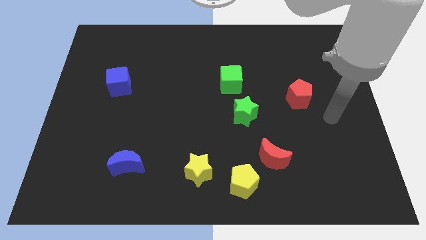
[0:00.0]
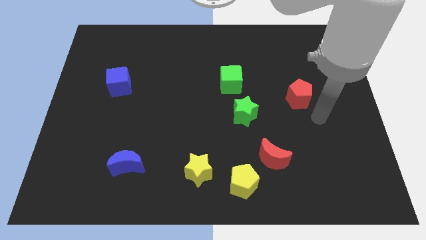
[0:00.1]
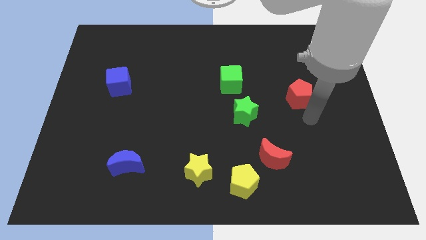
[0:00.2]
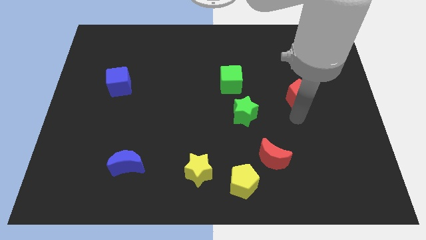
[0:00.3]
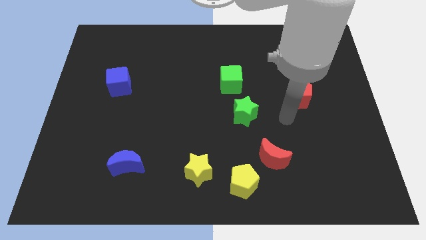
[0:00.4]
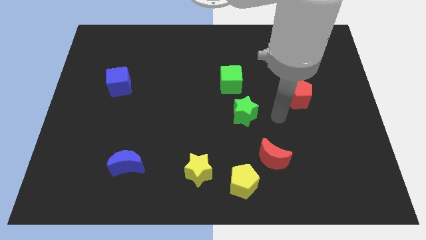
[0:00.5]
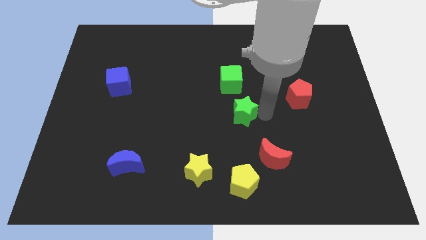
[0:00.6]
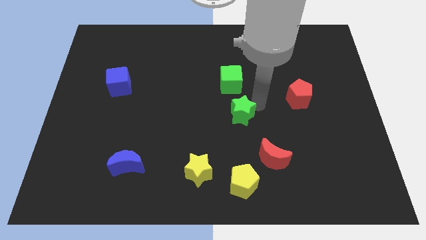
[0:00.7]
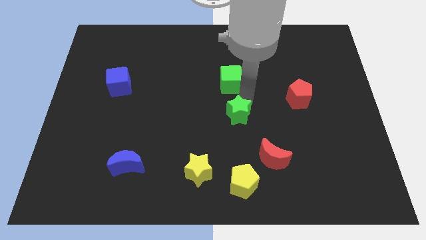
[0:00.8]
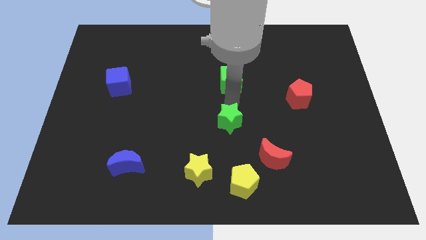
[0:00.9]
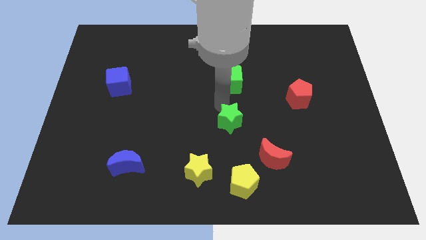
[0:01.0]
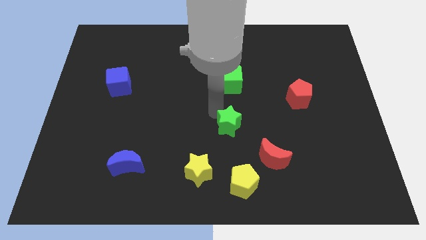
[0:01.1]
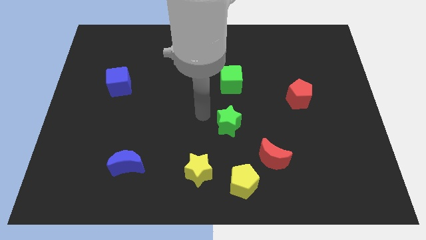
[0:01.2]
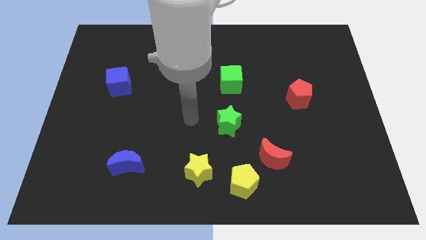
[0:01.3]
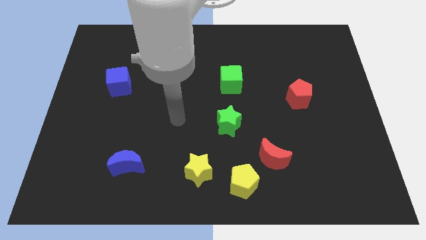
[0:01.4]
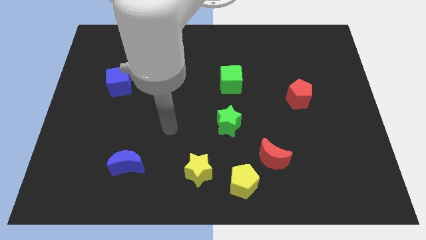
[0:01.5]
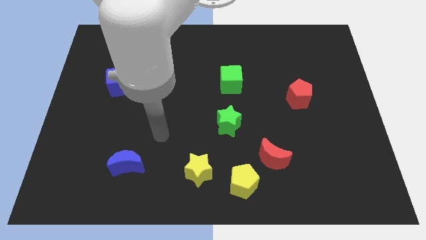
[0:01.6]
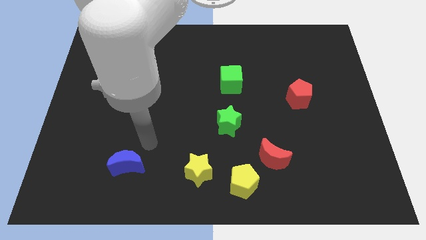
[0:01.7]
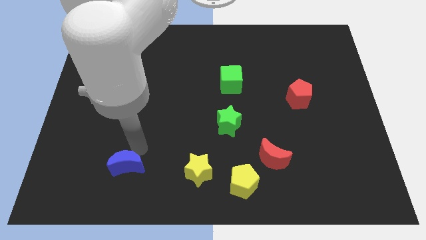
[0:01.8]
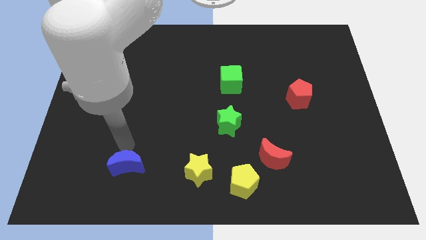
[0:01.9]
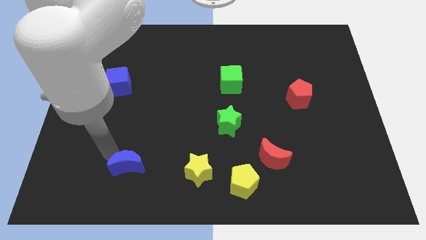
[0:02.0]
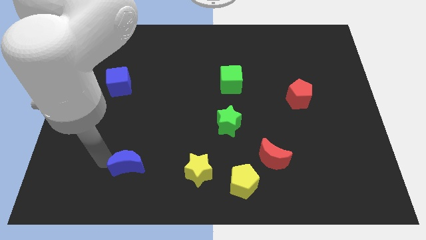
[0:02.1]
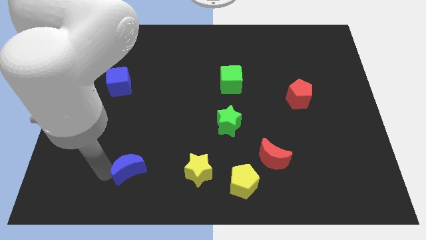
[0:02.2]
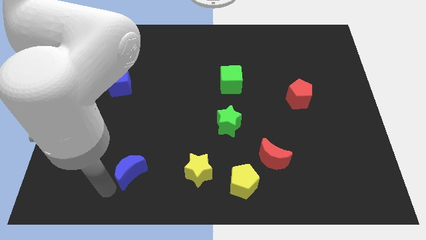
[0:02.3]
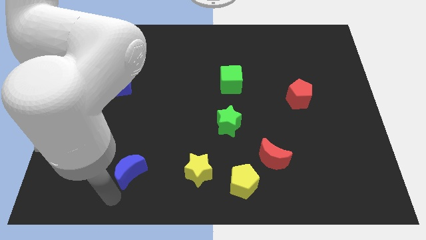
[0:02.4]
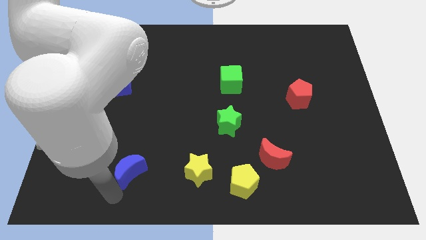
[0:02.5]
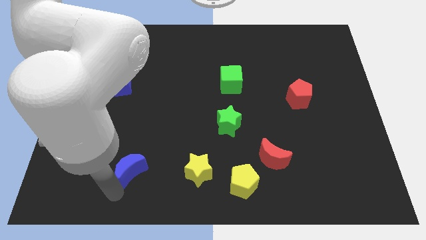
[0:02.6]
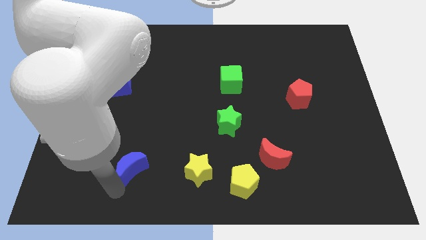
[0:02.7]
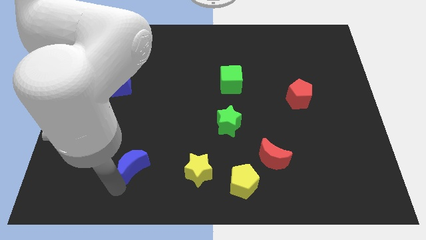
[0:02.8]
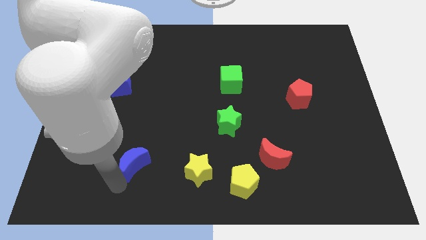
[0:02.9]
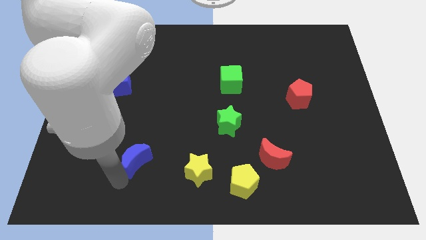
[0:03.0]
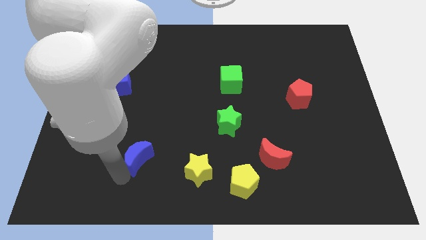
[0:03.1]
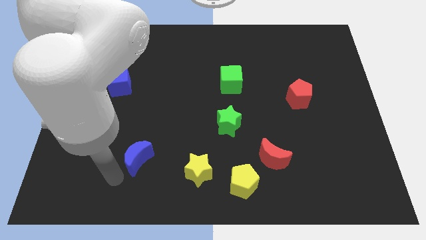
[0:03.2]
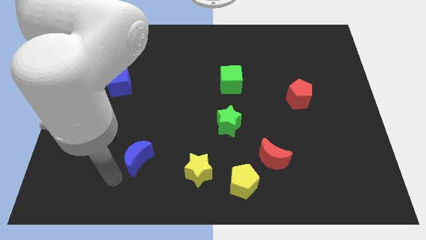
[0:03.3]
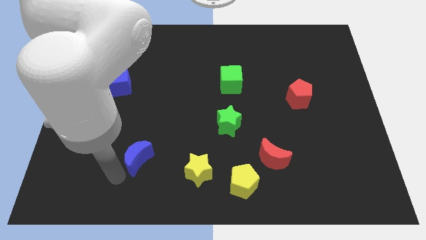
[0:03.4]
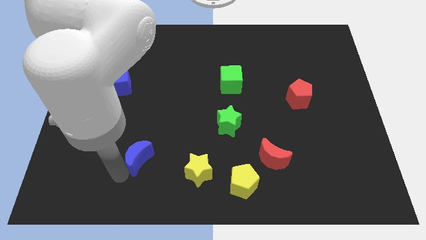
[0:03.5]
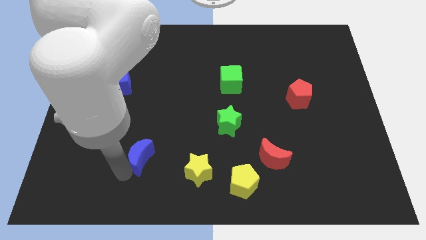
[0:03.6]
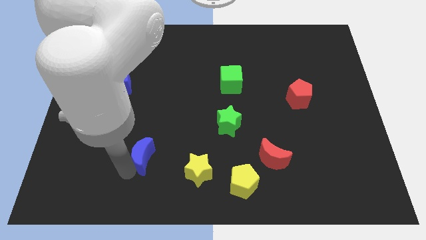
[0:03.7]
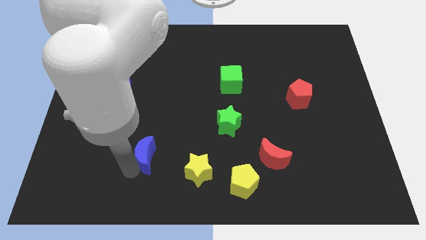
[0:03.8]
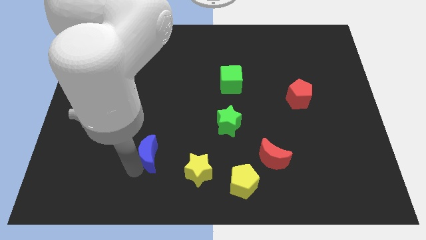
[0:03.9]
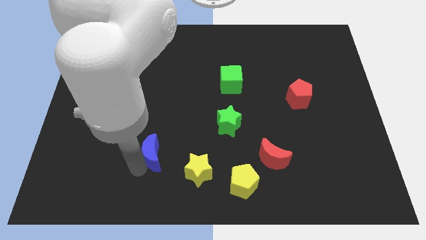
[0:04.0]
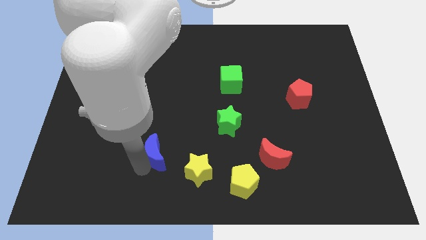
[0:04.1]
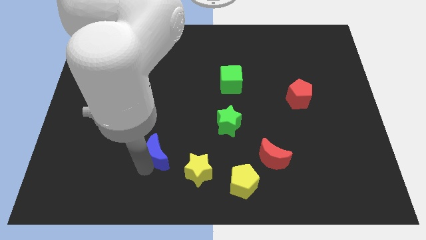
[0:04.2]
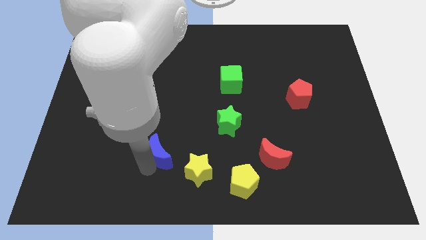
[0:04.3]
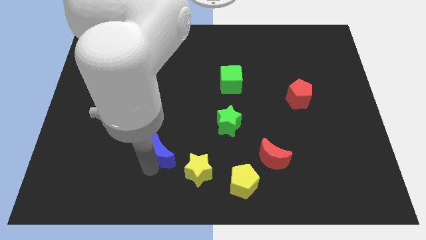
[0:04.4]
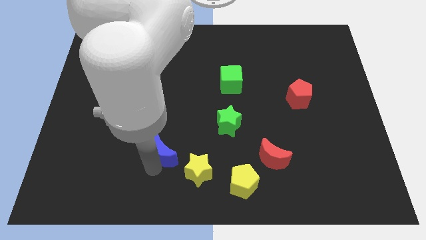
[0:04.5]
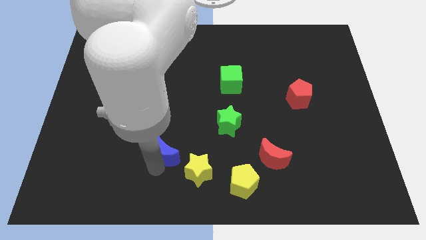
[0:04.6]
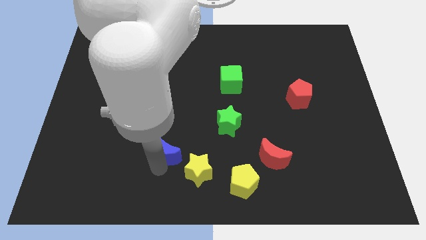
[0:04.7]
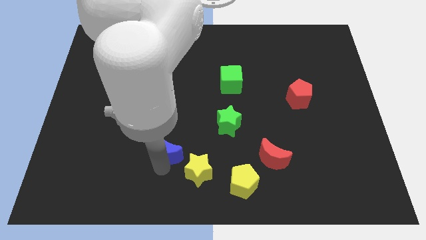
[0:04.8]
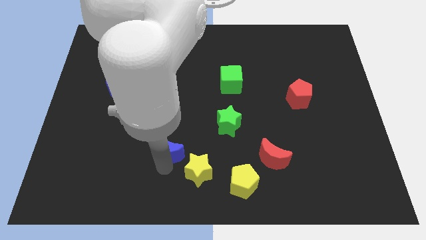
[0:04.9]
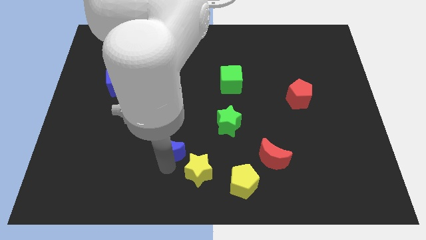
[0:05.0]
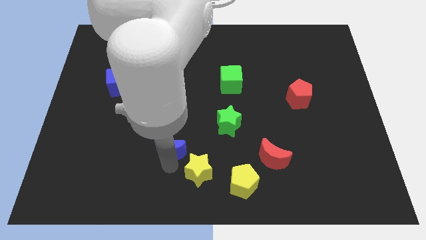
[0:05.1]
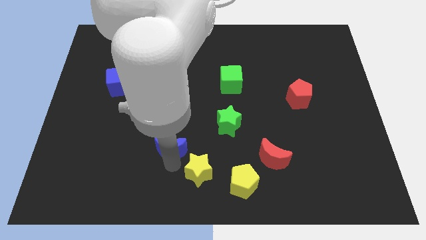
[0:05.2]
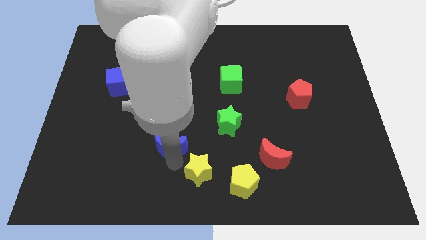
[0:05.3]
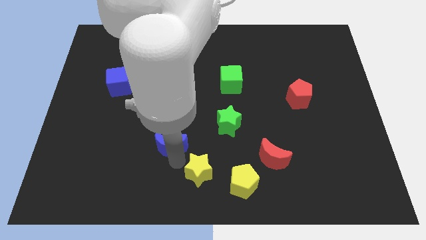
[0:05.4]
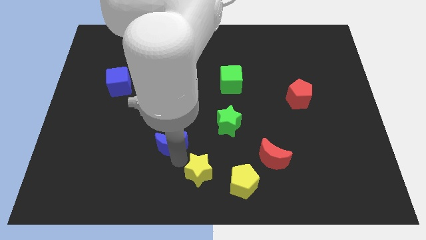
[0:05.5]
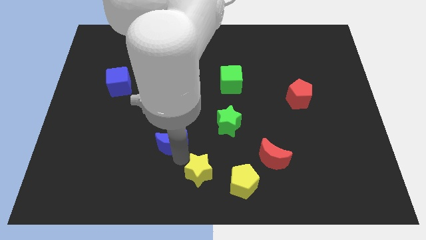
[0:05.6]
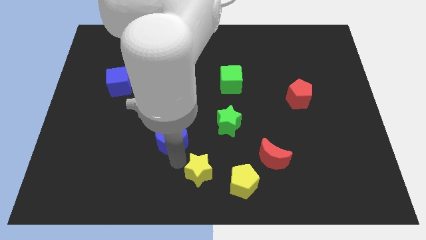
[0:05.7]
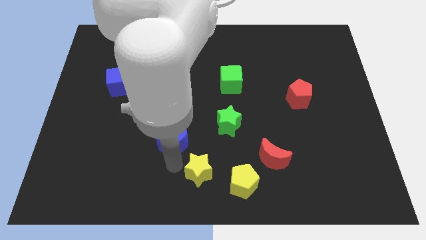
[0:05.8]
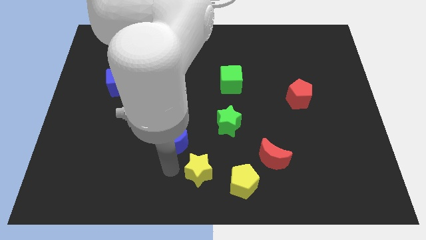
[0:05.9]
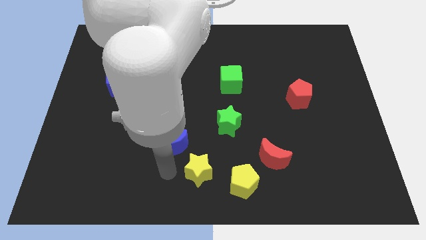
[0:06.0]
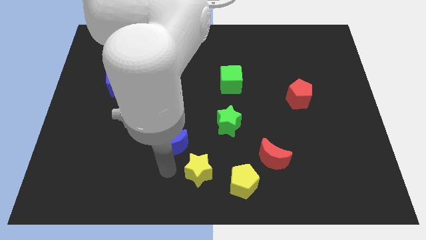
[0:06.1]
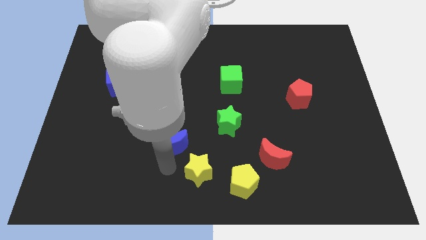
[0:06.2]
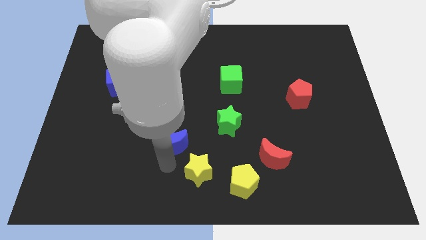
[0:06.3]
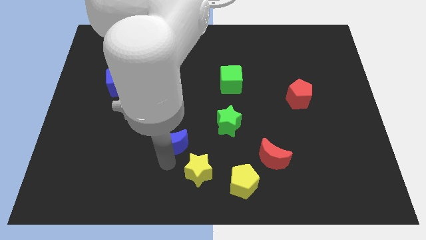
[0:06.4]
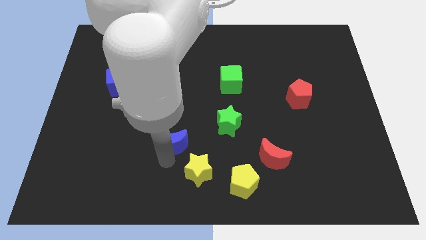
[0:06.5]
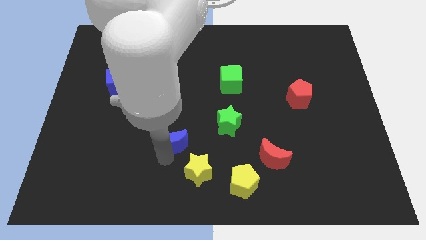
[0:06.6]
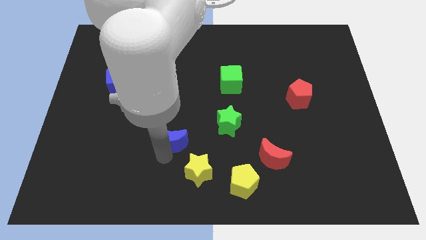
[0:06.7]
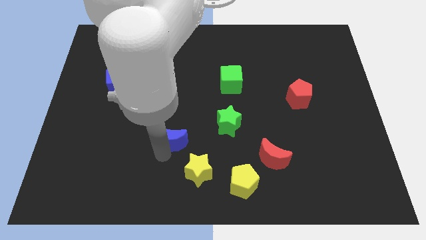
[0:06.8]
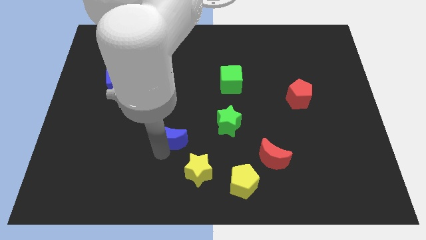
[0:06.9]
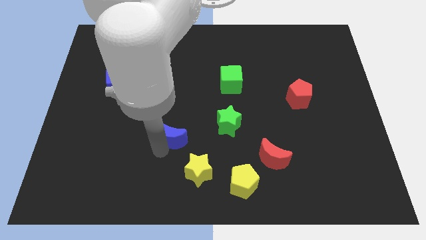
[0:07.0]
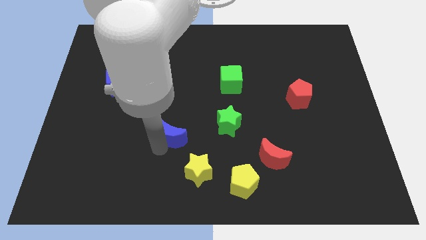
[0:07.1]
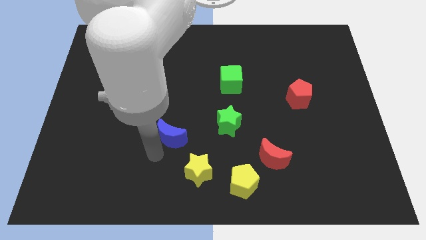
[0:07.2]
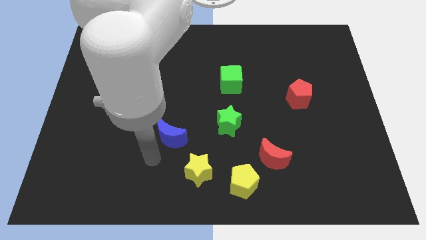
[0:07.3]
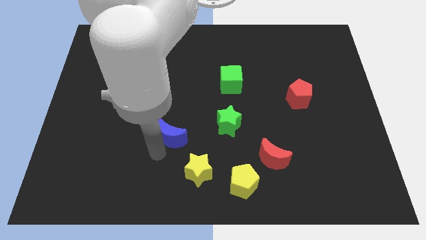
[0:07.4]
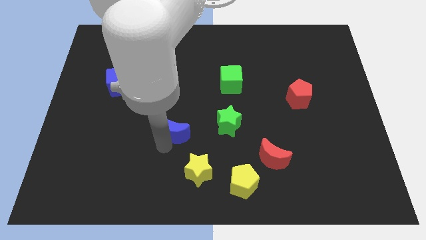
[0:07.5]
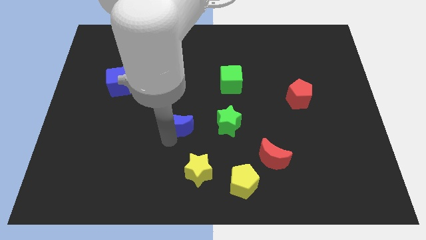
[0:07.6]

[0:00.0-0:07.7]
put the blue moon to the middle of the board
